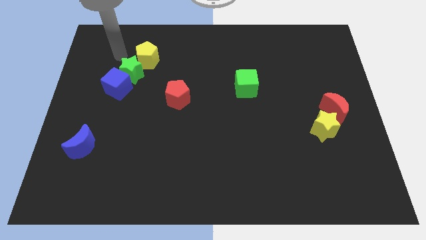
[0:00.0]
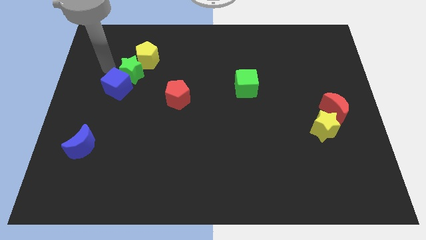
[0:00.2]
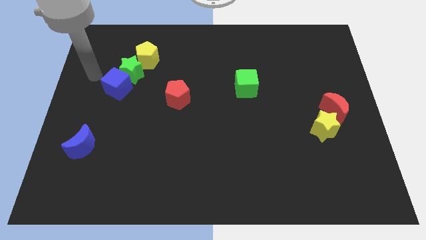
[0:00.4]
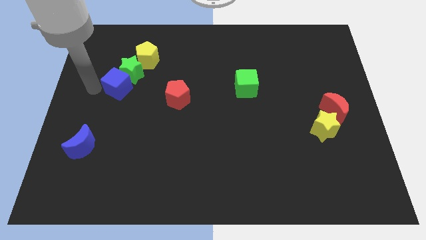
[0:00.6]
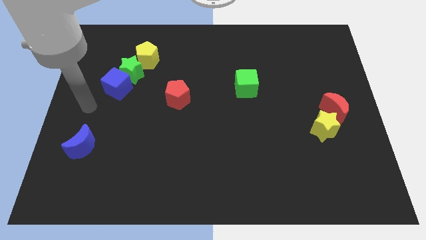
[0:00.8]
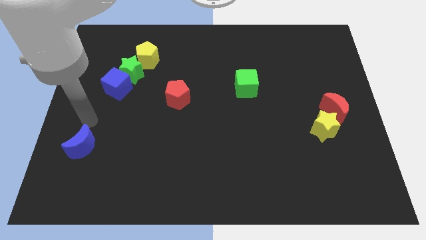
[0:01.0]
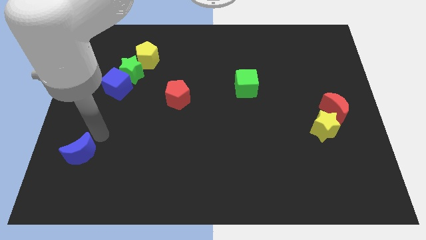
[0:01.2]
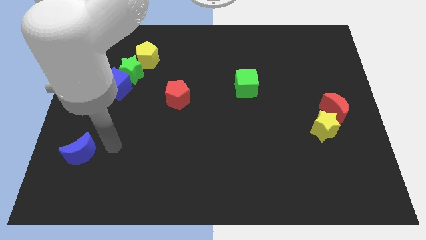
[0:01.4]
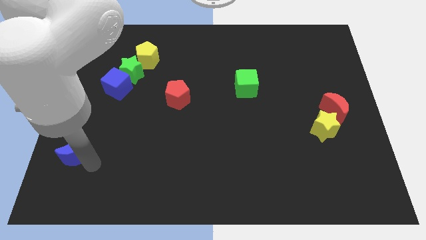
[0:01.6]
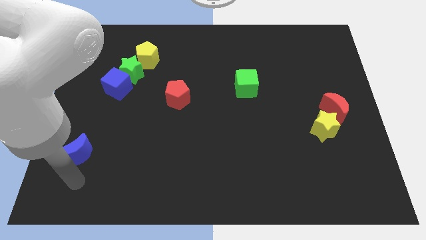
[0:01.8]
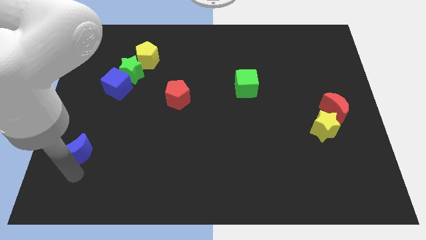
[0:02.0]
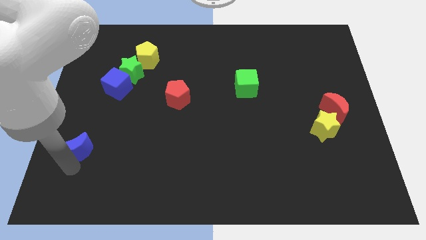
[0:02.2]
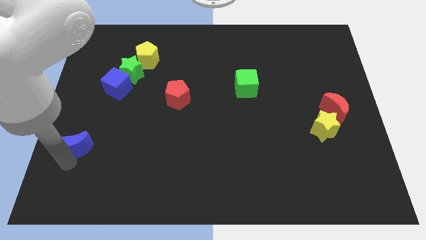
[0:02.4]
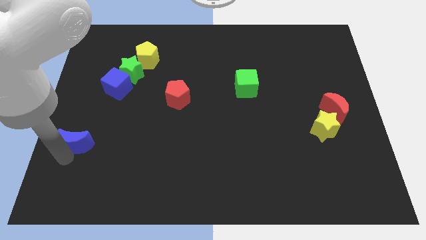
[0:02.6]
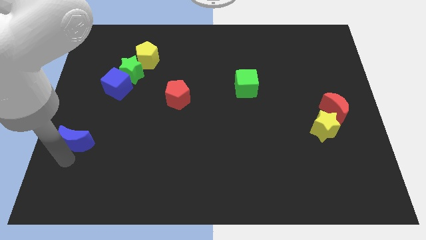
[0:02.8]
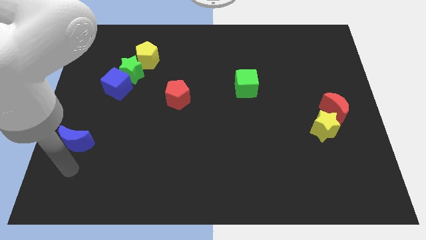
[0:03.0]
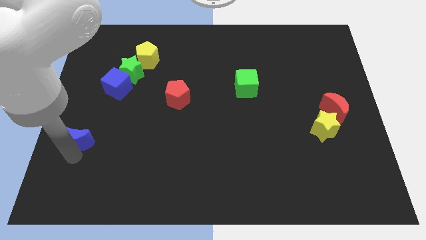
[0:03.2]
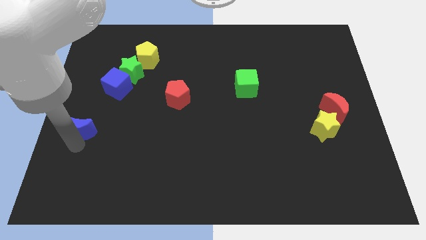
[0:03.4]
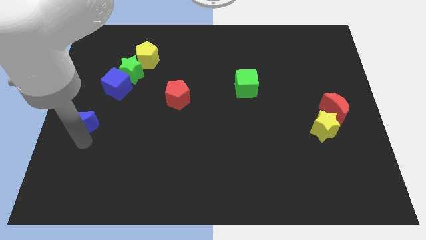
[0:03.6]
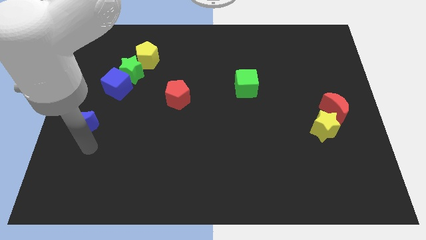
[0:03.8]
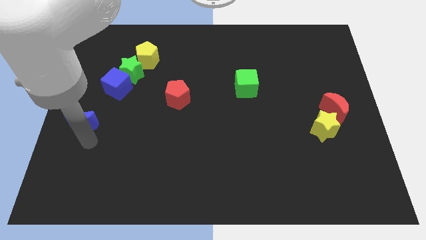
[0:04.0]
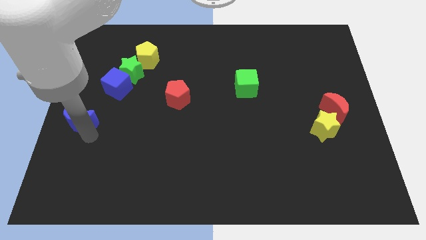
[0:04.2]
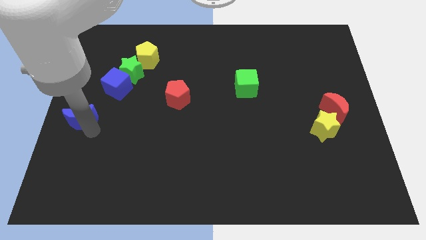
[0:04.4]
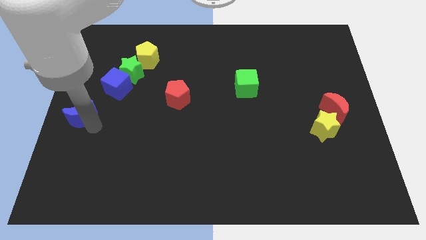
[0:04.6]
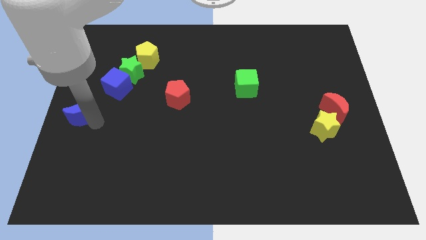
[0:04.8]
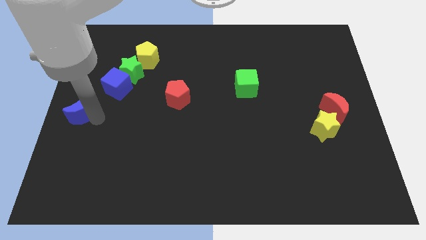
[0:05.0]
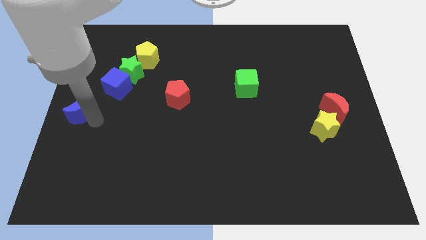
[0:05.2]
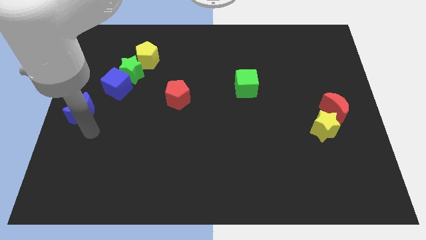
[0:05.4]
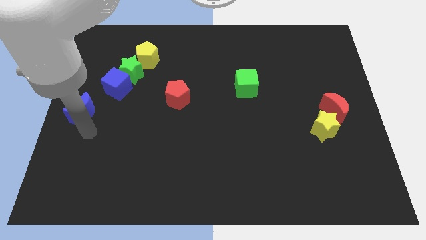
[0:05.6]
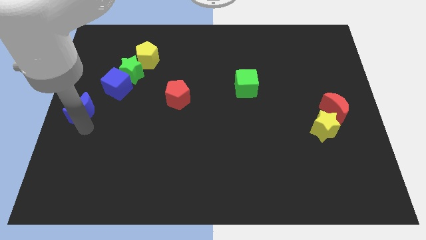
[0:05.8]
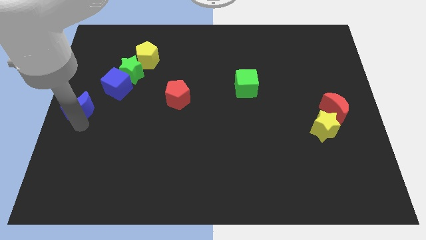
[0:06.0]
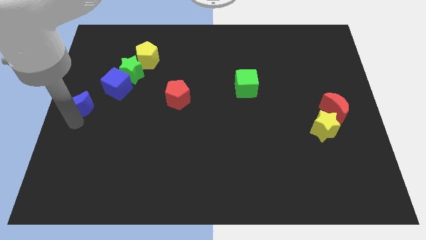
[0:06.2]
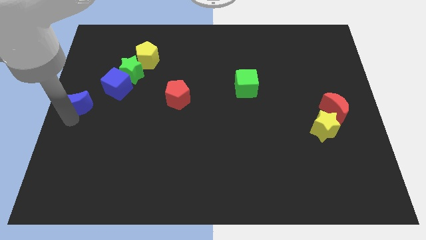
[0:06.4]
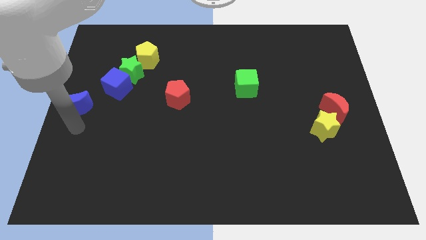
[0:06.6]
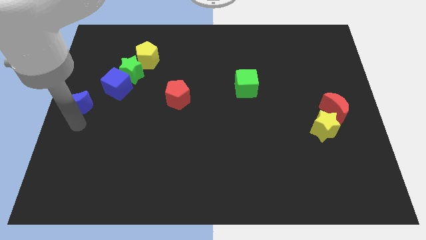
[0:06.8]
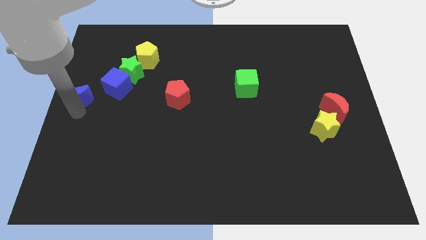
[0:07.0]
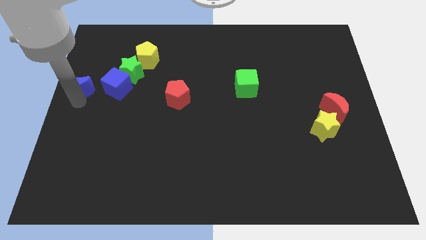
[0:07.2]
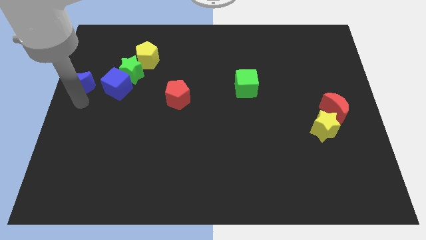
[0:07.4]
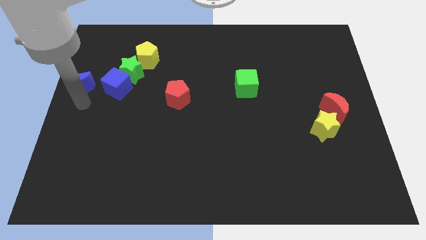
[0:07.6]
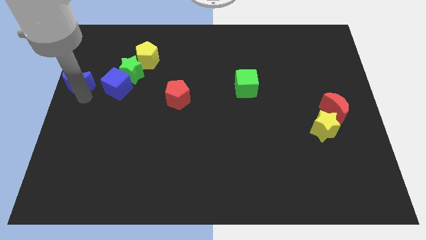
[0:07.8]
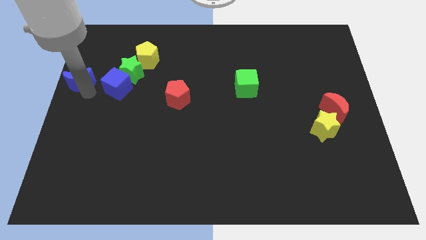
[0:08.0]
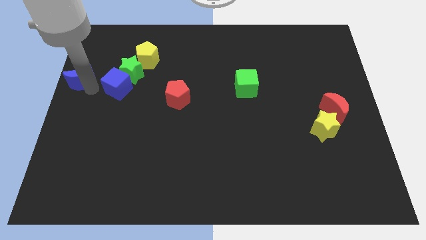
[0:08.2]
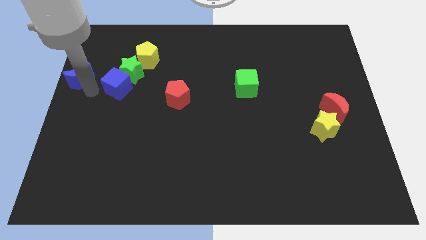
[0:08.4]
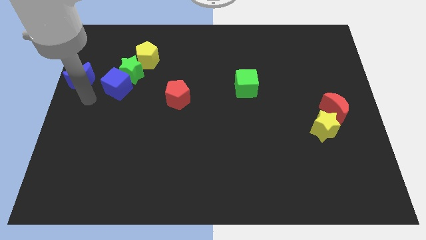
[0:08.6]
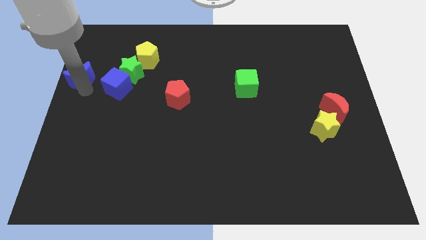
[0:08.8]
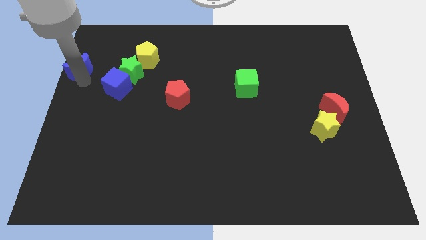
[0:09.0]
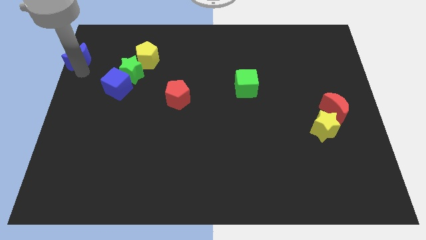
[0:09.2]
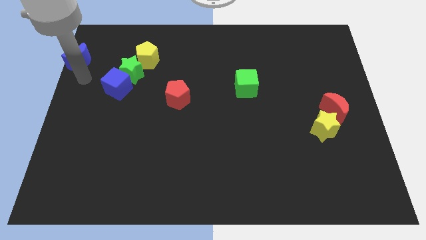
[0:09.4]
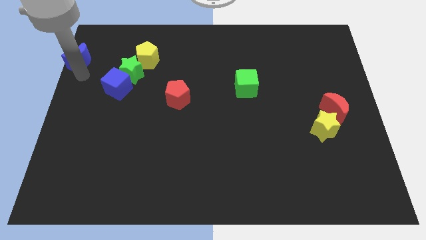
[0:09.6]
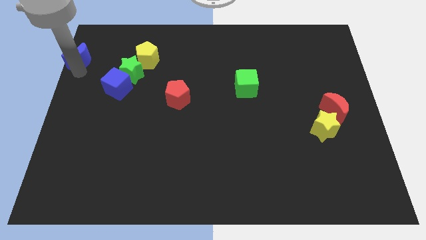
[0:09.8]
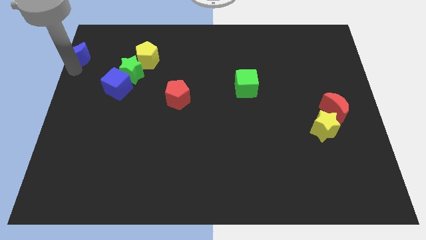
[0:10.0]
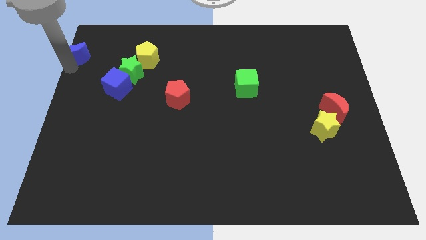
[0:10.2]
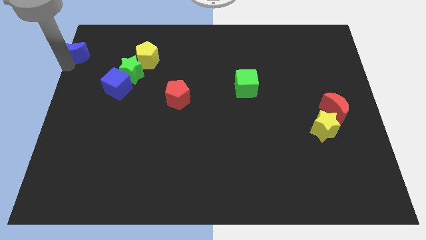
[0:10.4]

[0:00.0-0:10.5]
push the blue moon to the top left

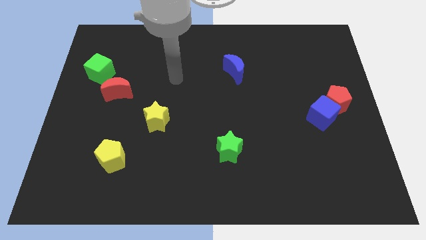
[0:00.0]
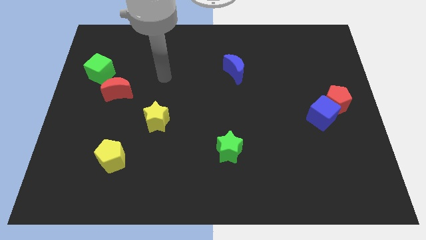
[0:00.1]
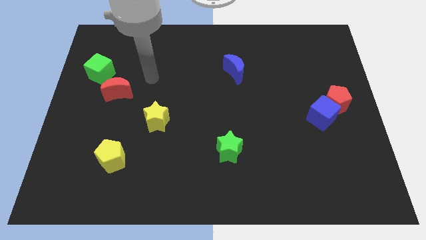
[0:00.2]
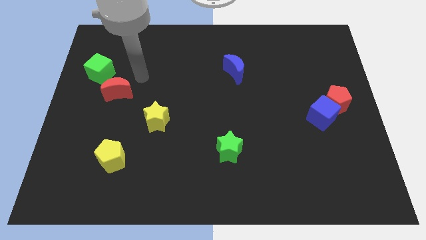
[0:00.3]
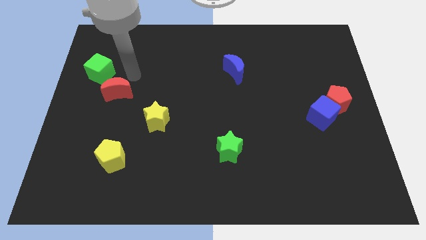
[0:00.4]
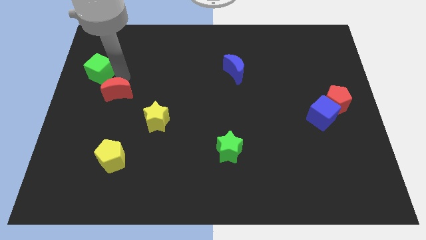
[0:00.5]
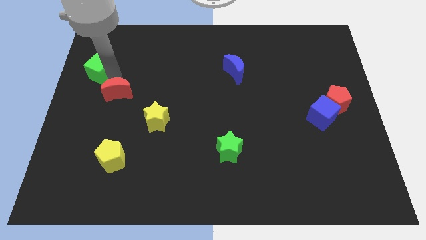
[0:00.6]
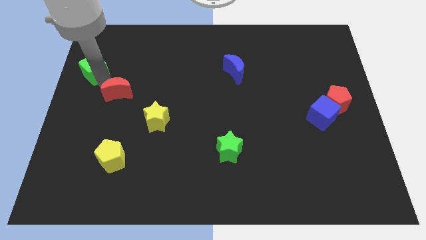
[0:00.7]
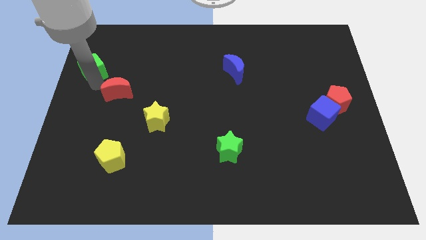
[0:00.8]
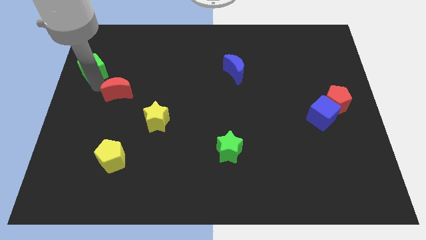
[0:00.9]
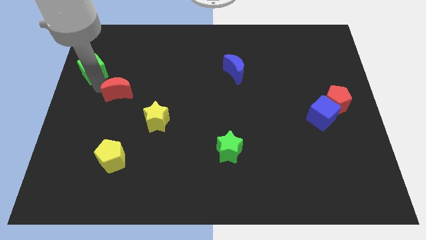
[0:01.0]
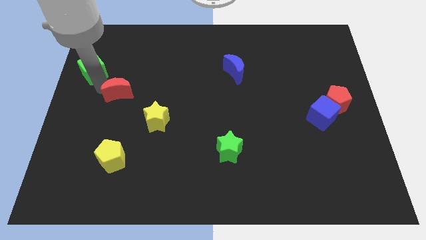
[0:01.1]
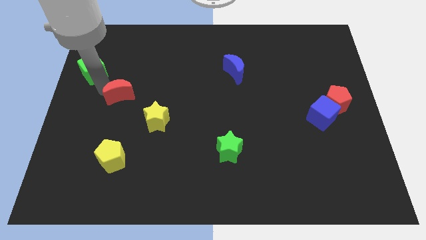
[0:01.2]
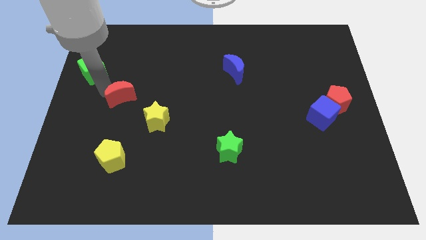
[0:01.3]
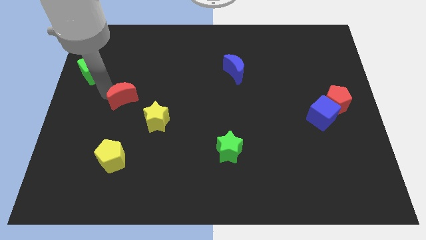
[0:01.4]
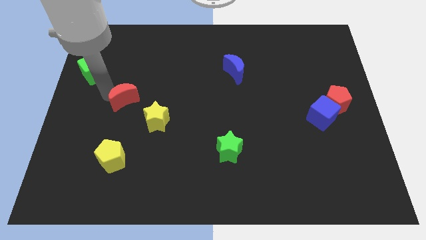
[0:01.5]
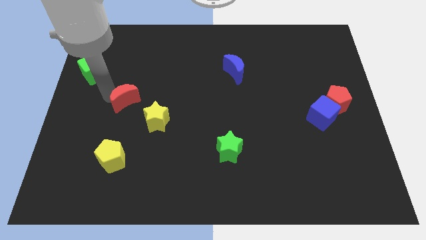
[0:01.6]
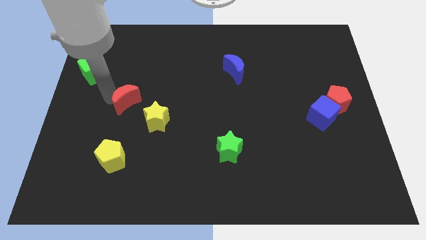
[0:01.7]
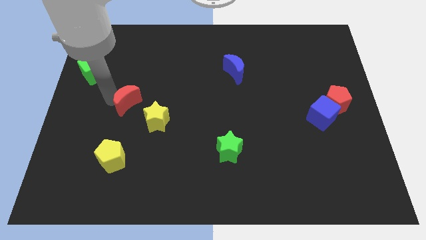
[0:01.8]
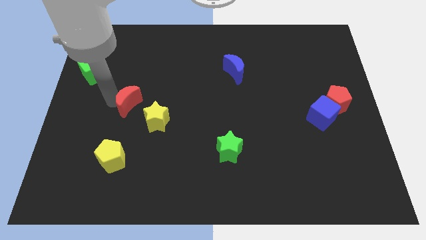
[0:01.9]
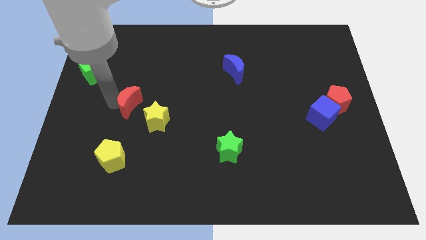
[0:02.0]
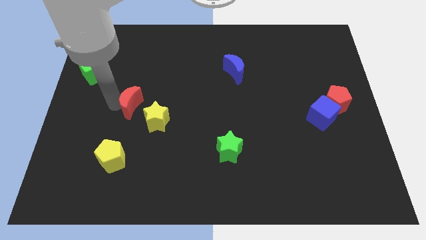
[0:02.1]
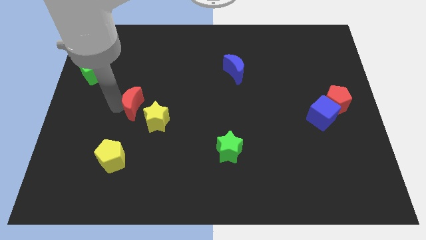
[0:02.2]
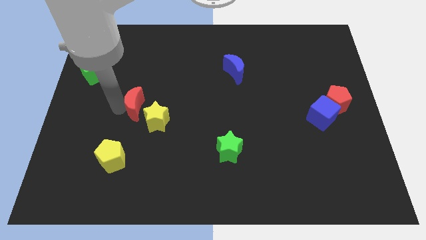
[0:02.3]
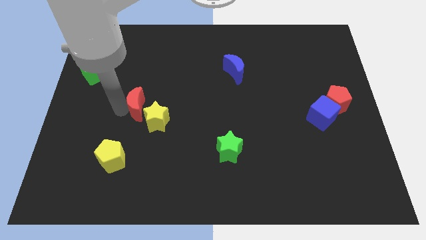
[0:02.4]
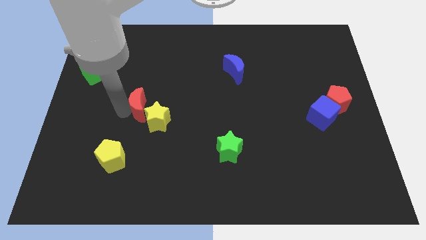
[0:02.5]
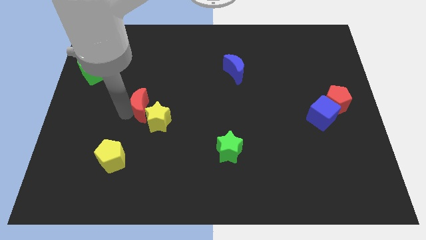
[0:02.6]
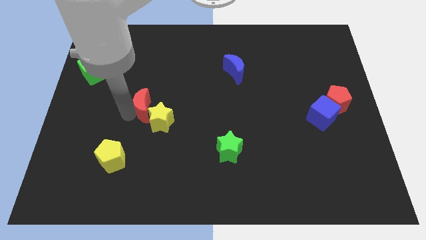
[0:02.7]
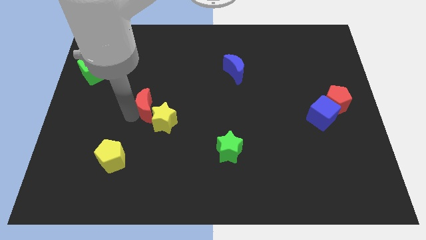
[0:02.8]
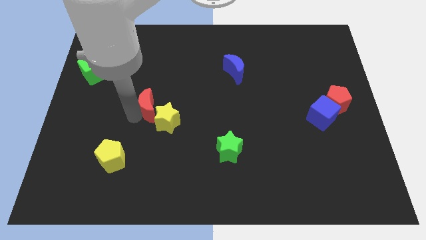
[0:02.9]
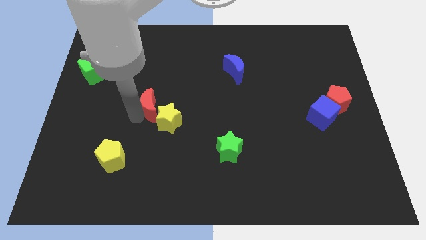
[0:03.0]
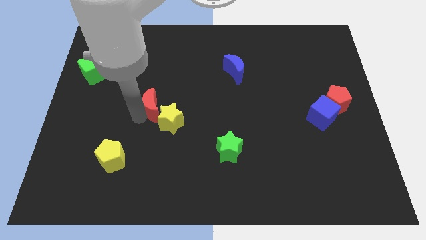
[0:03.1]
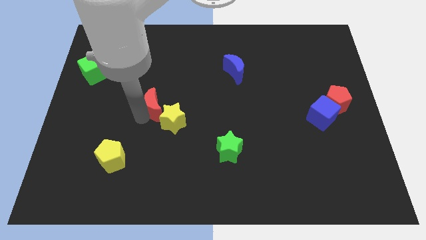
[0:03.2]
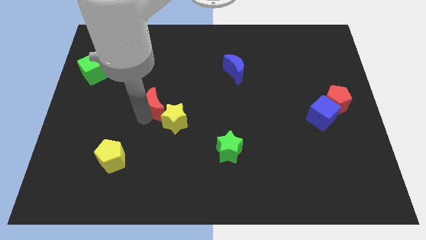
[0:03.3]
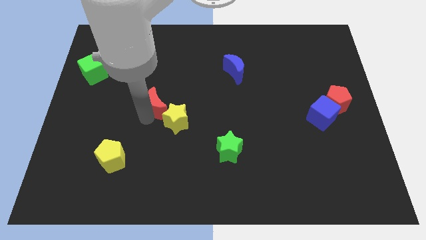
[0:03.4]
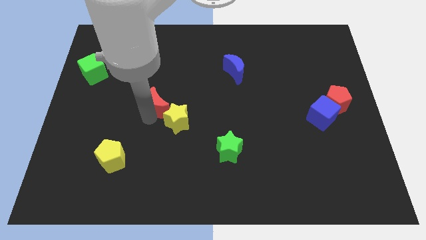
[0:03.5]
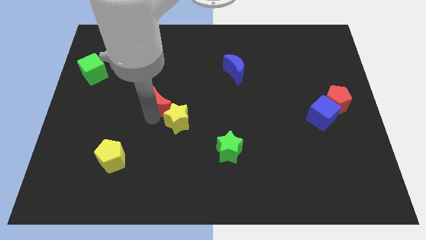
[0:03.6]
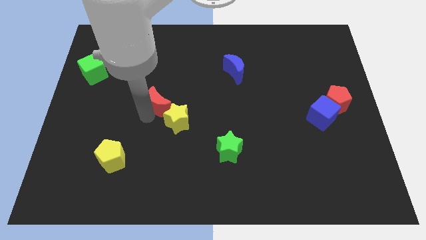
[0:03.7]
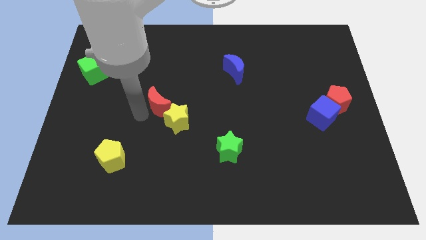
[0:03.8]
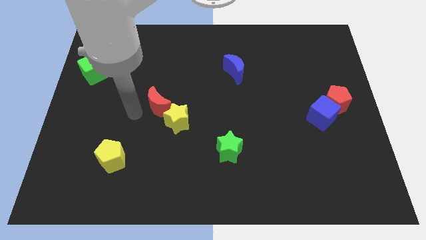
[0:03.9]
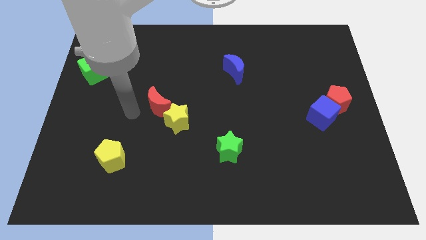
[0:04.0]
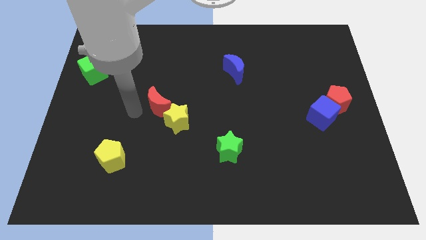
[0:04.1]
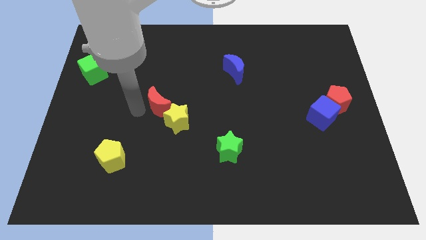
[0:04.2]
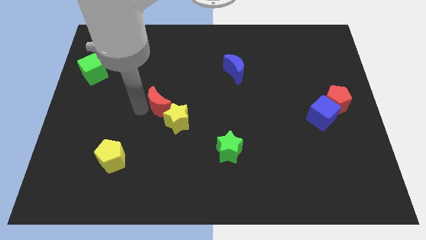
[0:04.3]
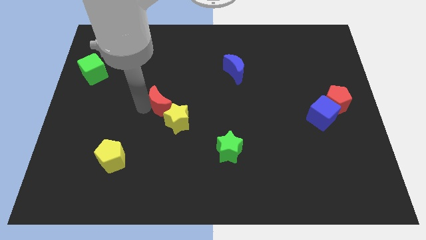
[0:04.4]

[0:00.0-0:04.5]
put the red moon to the middle of the board
